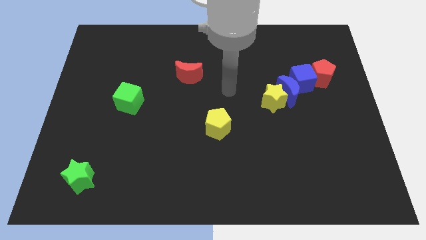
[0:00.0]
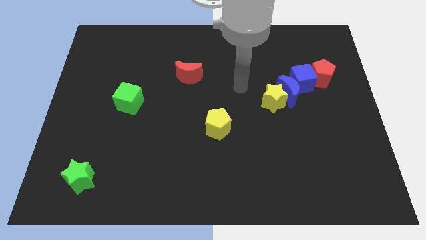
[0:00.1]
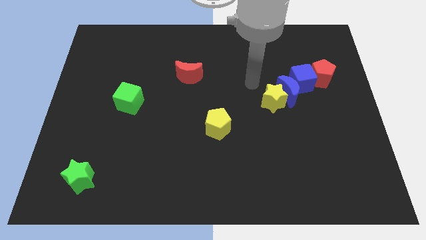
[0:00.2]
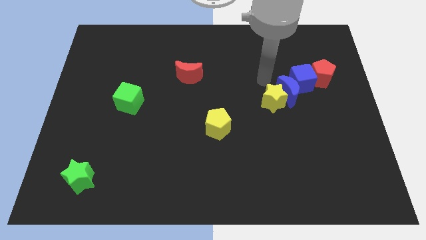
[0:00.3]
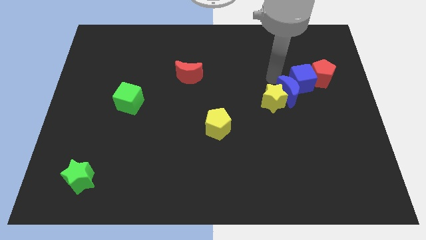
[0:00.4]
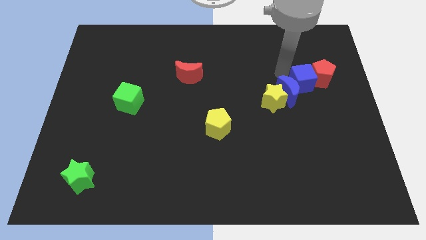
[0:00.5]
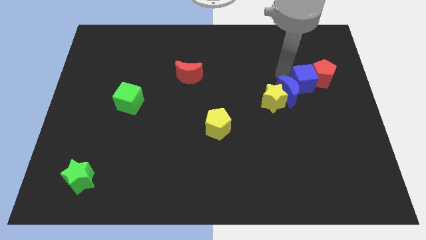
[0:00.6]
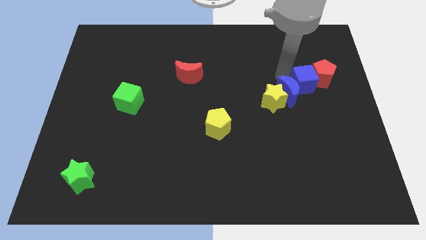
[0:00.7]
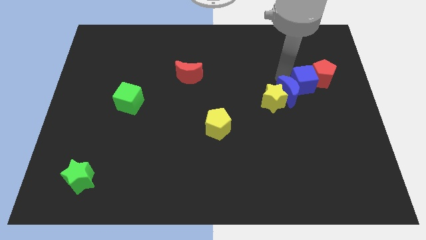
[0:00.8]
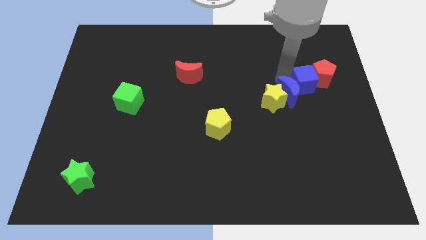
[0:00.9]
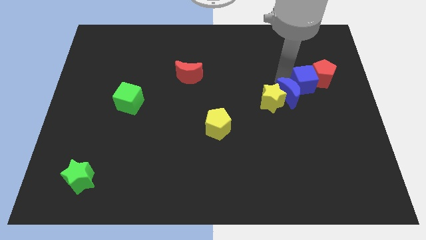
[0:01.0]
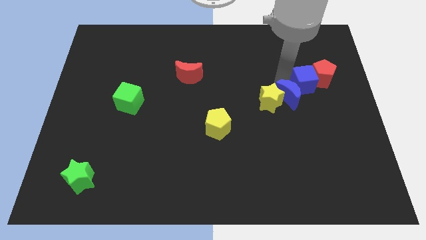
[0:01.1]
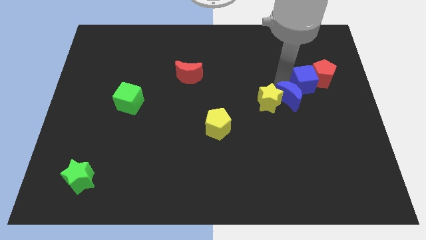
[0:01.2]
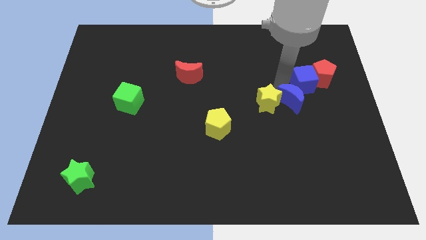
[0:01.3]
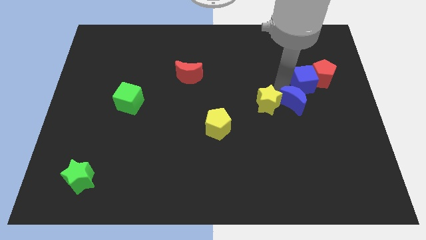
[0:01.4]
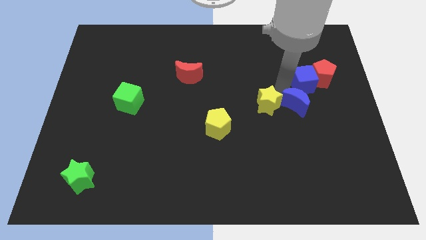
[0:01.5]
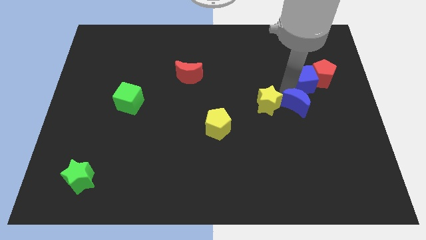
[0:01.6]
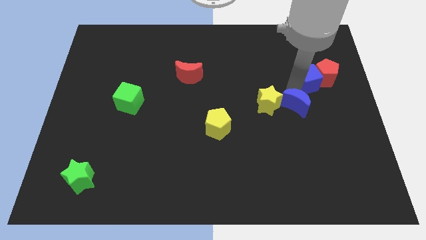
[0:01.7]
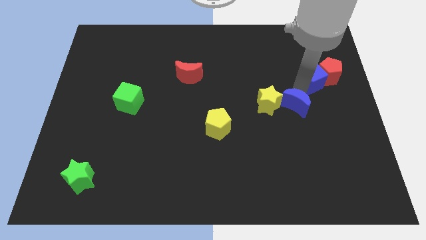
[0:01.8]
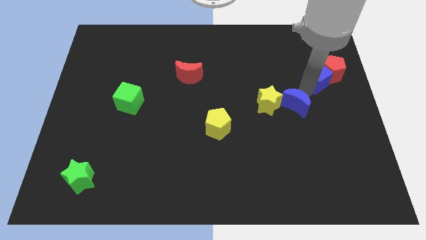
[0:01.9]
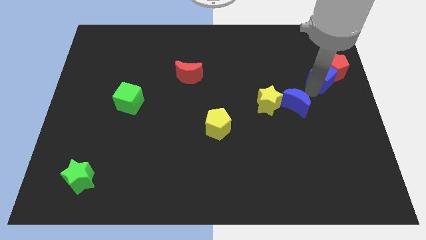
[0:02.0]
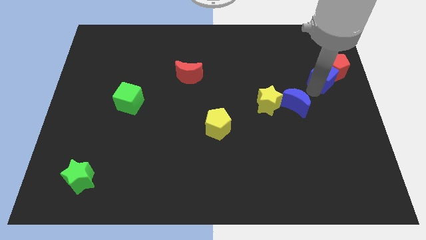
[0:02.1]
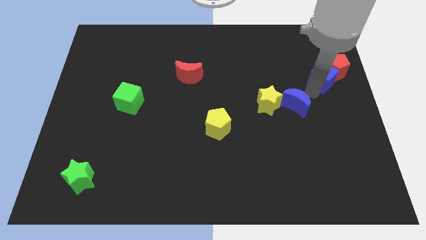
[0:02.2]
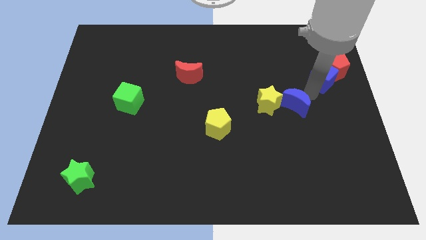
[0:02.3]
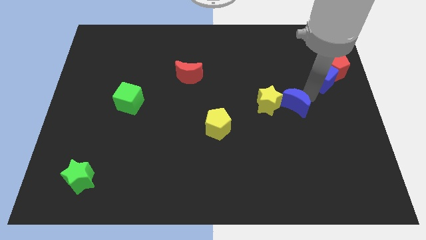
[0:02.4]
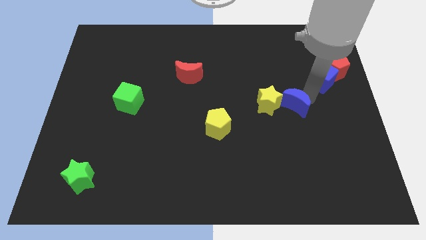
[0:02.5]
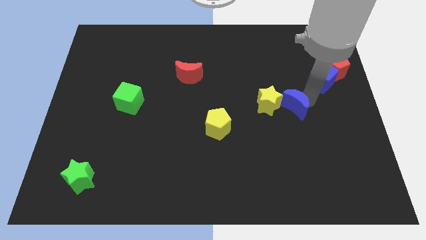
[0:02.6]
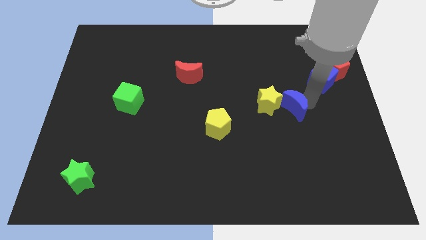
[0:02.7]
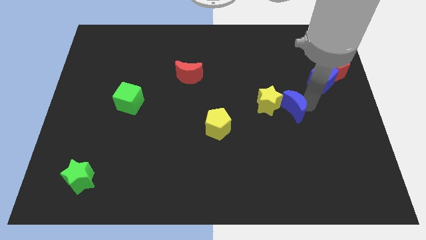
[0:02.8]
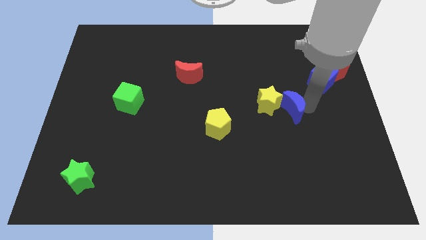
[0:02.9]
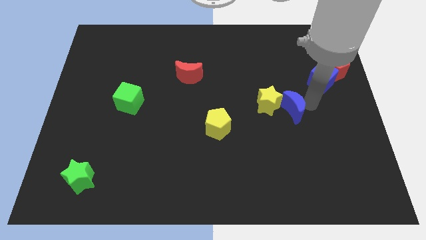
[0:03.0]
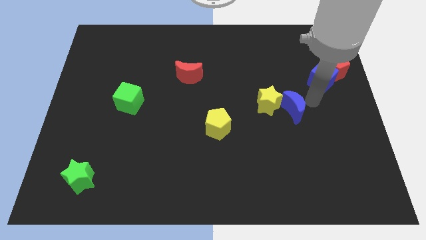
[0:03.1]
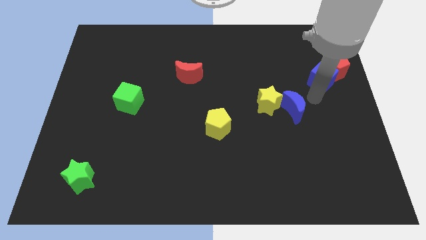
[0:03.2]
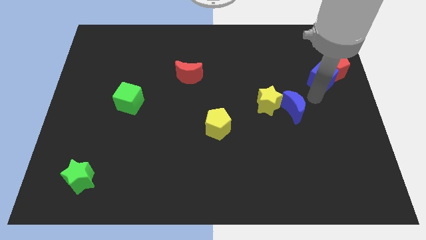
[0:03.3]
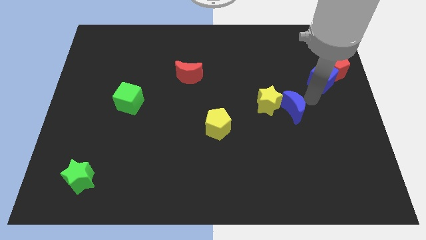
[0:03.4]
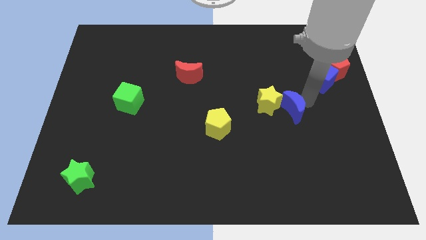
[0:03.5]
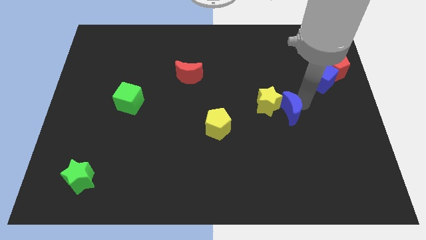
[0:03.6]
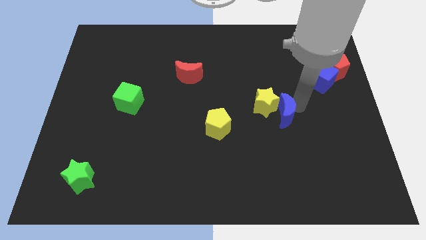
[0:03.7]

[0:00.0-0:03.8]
separate the blue moon from the clump

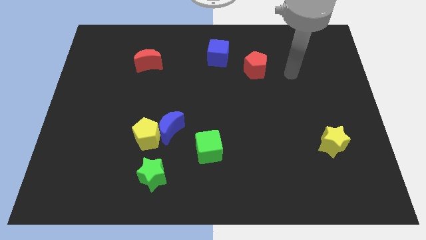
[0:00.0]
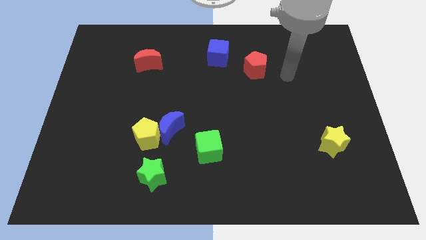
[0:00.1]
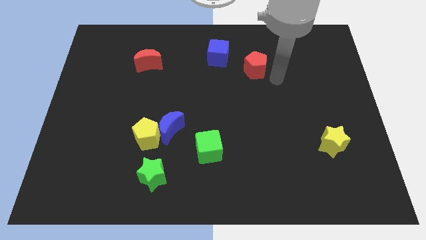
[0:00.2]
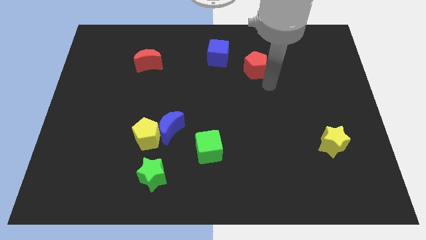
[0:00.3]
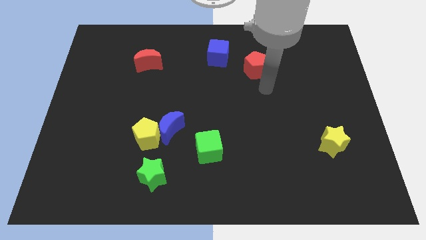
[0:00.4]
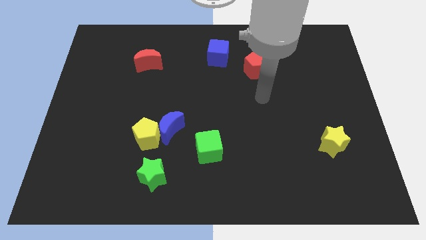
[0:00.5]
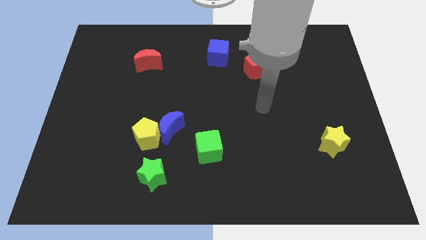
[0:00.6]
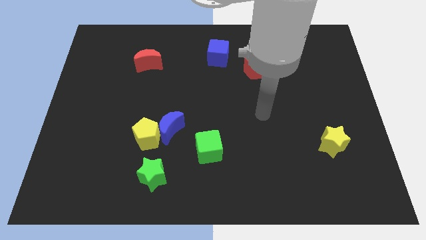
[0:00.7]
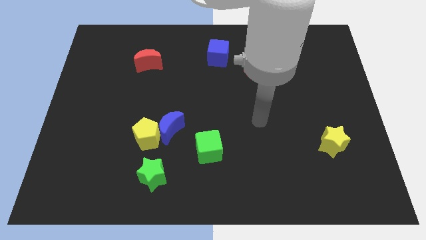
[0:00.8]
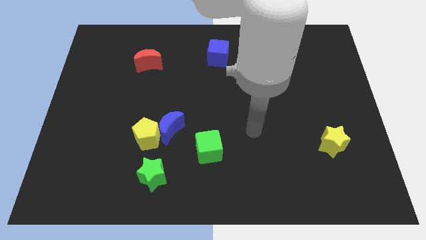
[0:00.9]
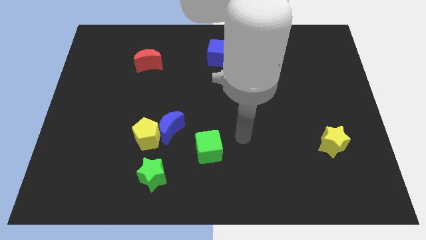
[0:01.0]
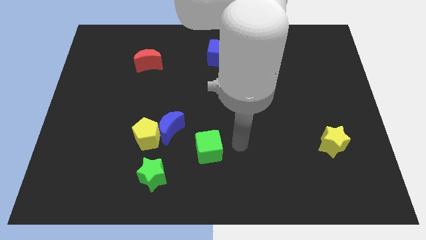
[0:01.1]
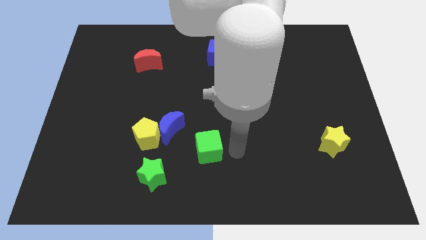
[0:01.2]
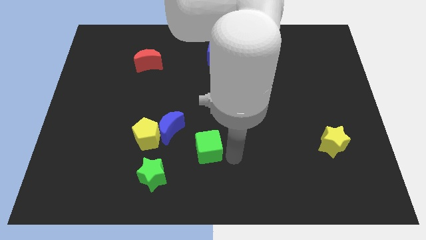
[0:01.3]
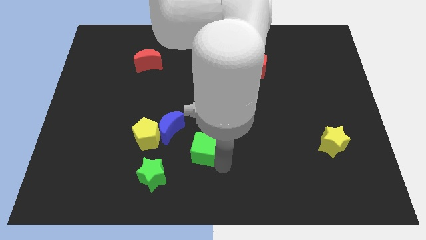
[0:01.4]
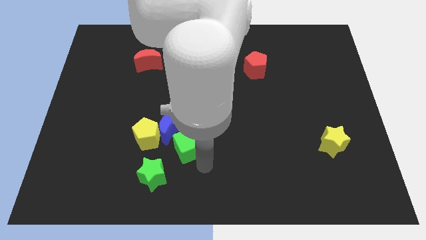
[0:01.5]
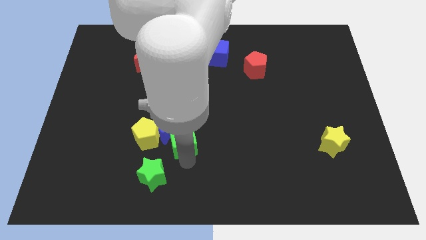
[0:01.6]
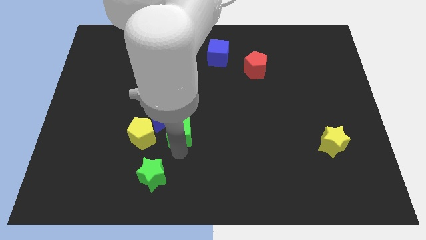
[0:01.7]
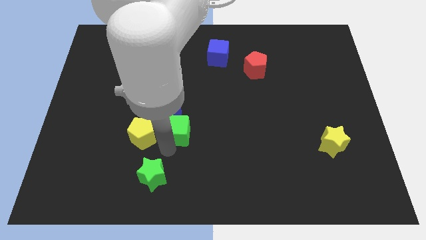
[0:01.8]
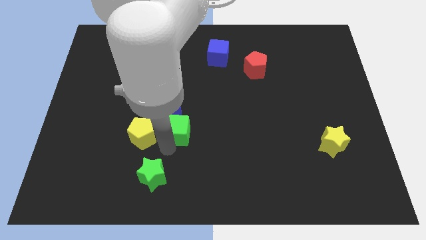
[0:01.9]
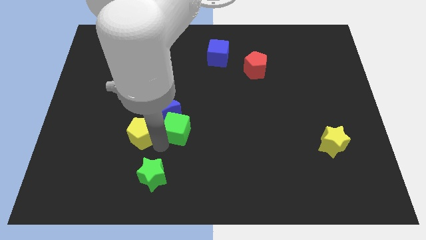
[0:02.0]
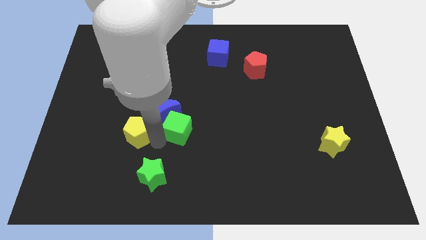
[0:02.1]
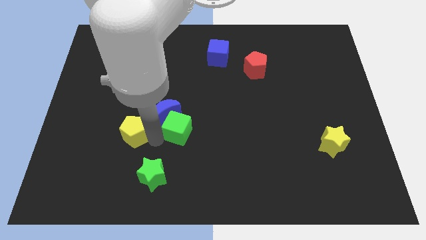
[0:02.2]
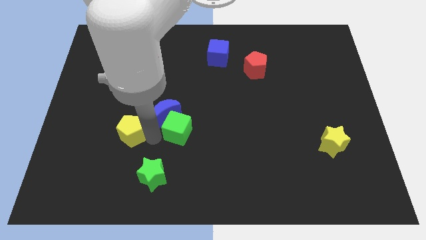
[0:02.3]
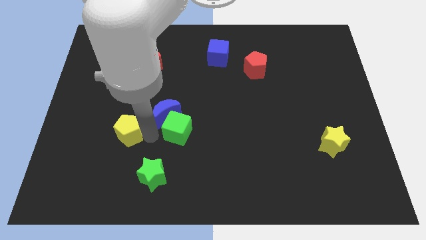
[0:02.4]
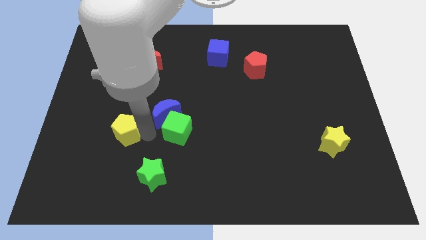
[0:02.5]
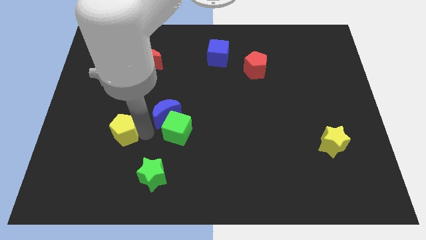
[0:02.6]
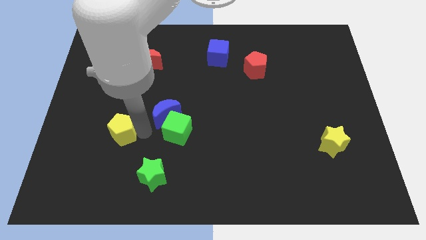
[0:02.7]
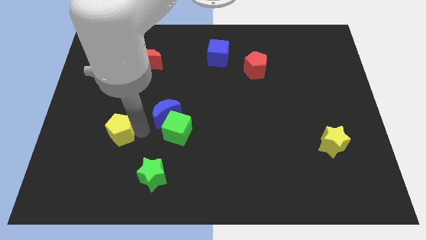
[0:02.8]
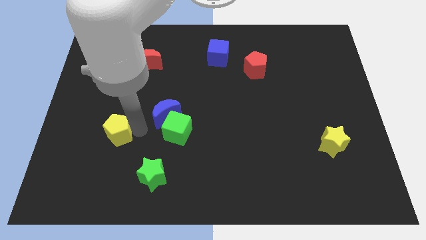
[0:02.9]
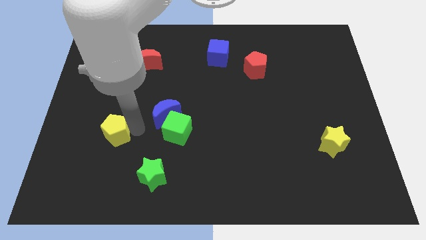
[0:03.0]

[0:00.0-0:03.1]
move the yellow pentagon away from the blue moon and green star

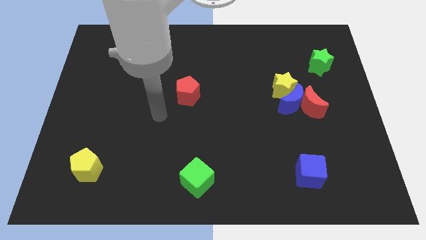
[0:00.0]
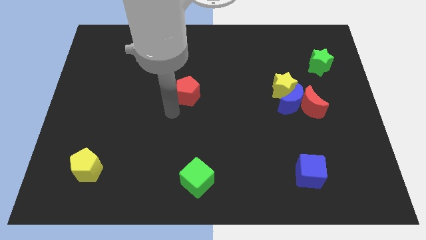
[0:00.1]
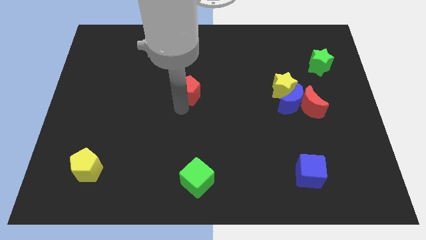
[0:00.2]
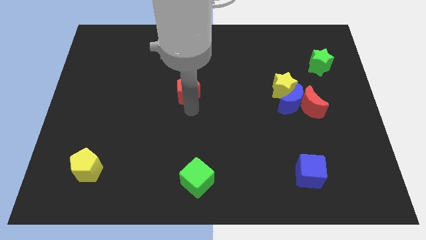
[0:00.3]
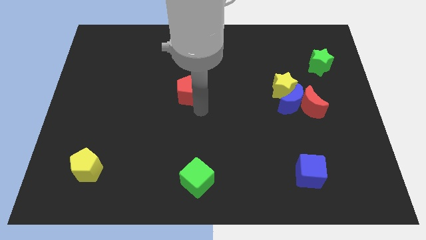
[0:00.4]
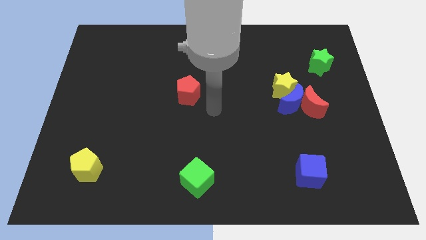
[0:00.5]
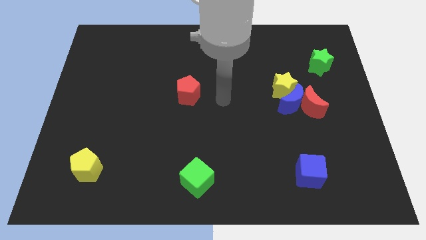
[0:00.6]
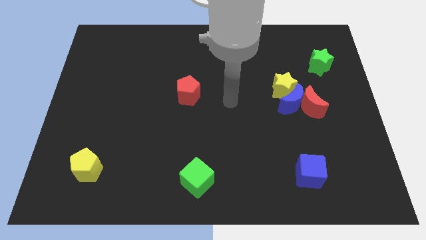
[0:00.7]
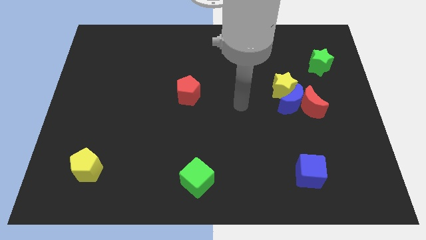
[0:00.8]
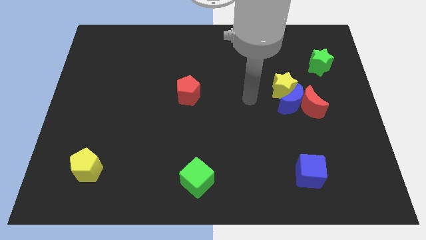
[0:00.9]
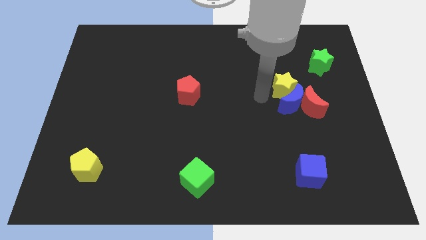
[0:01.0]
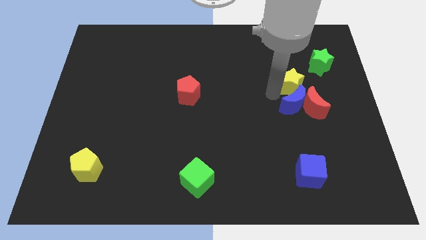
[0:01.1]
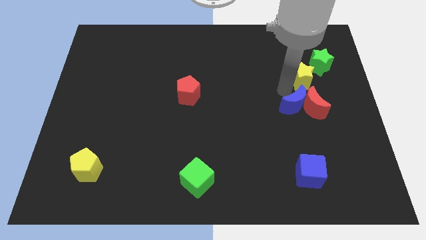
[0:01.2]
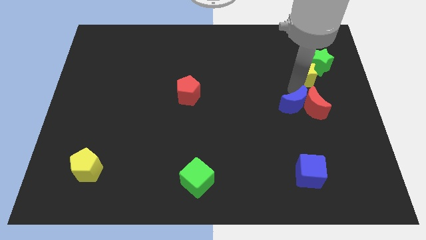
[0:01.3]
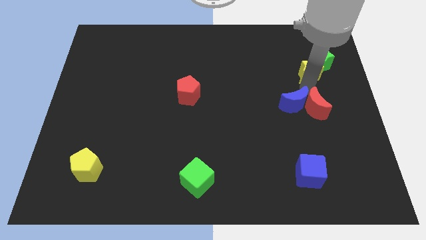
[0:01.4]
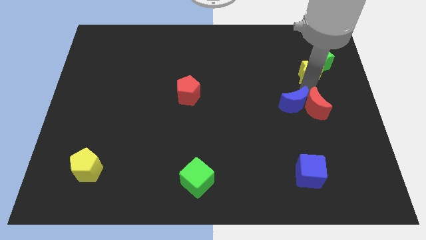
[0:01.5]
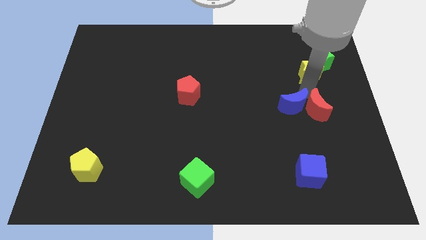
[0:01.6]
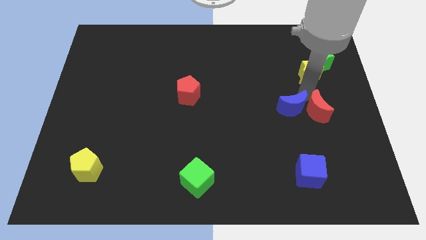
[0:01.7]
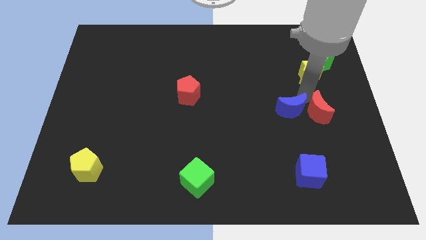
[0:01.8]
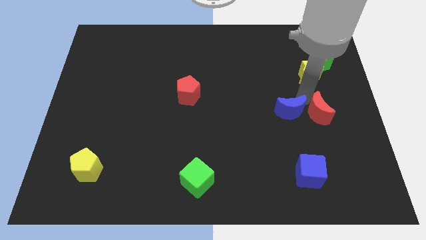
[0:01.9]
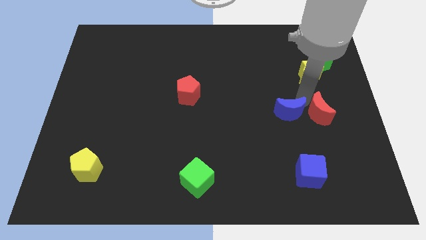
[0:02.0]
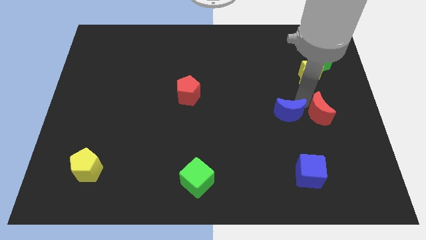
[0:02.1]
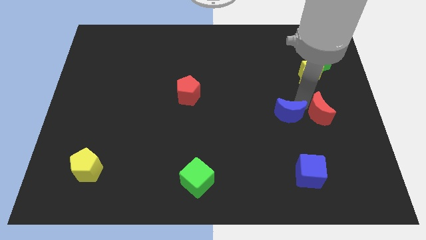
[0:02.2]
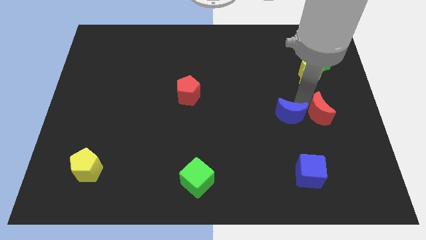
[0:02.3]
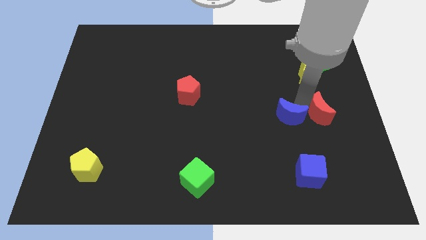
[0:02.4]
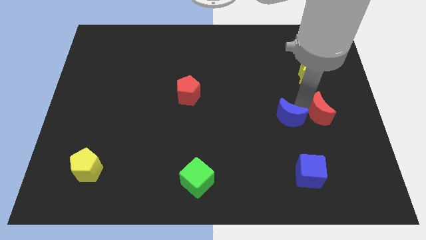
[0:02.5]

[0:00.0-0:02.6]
pull the blue moon apart from the red moon and yellow star
